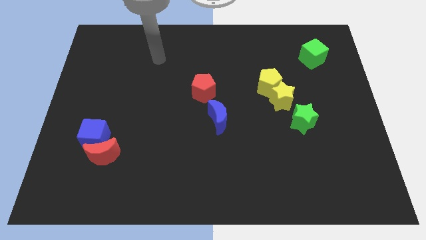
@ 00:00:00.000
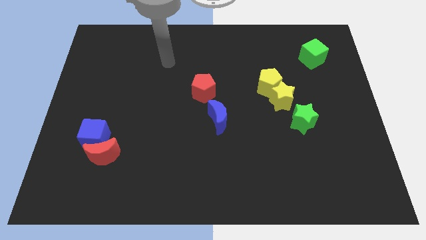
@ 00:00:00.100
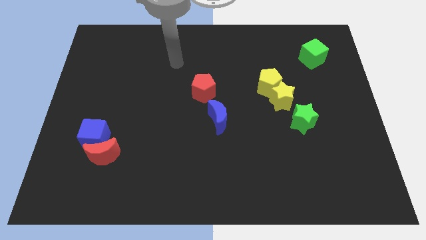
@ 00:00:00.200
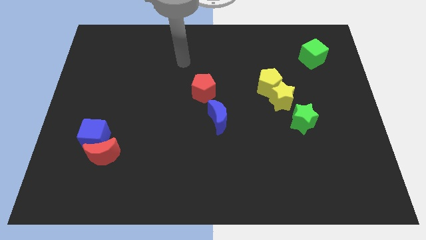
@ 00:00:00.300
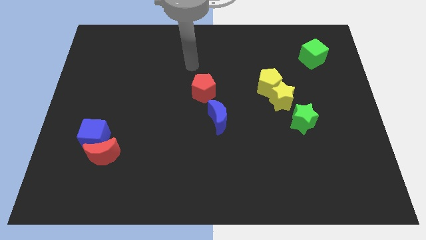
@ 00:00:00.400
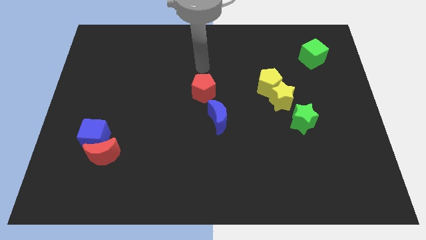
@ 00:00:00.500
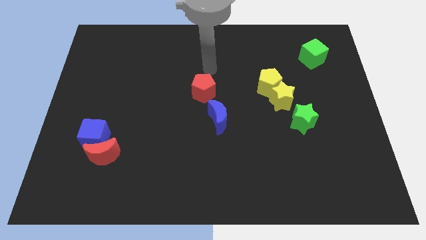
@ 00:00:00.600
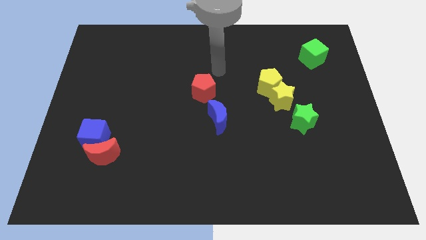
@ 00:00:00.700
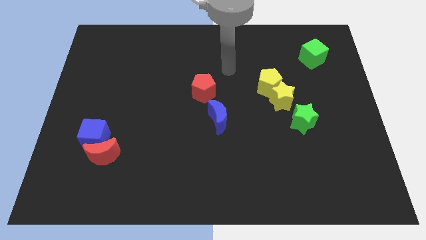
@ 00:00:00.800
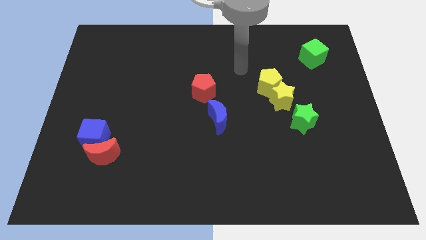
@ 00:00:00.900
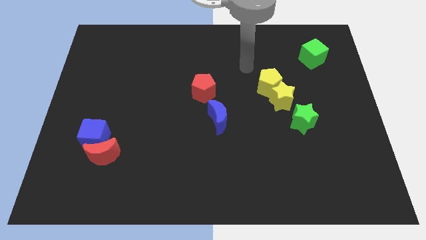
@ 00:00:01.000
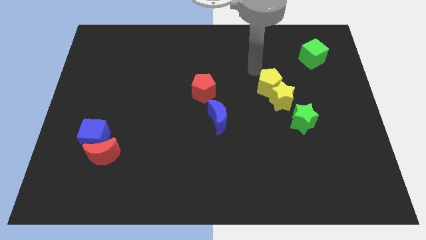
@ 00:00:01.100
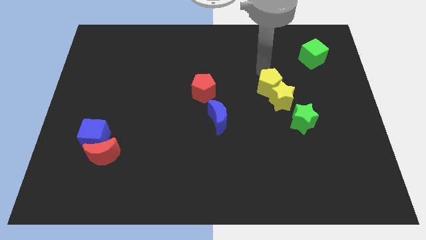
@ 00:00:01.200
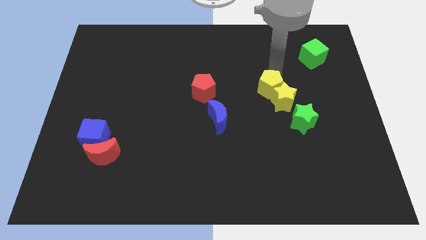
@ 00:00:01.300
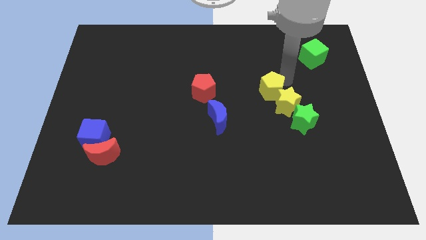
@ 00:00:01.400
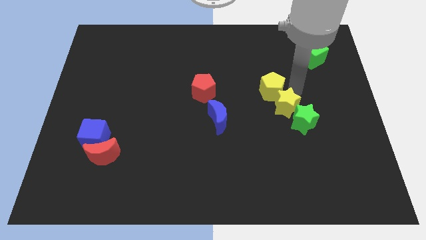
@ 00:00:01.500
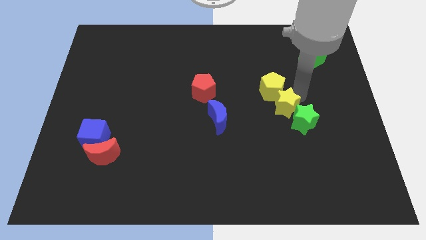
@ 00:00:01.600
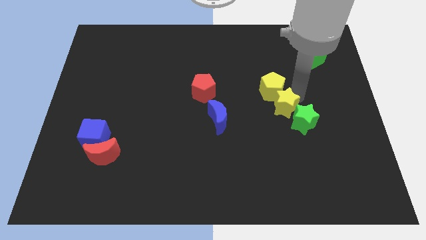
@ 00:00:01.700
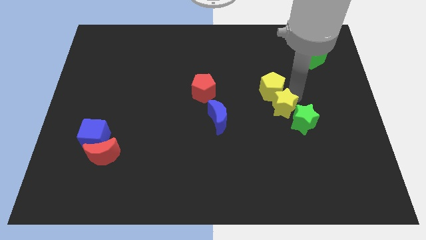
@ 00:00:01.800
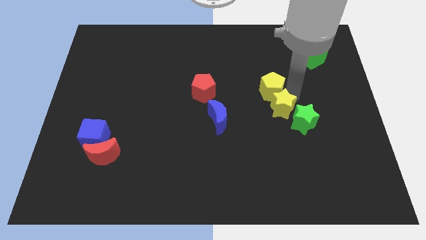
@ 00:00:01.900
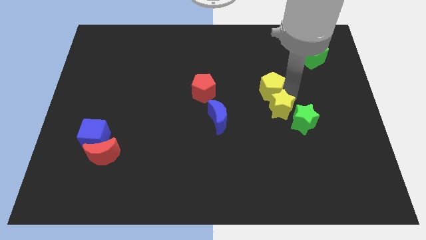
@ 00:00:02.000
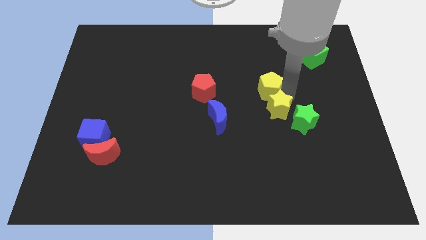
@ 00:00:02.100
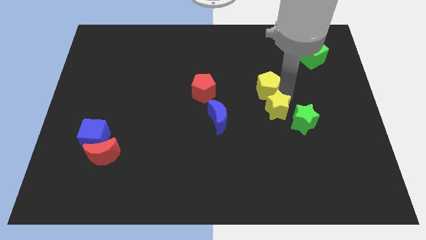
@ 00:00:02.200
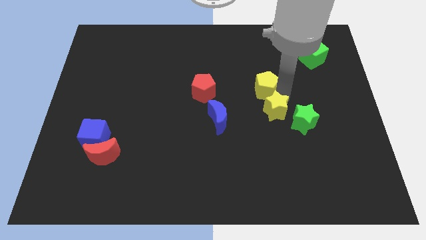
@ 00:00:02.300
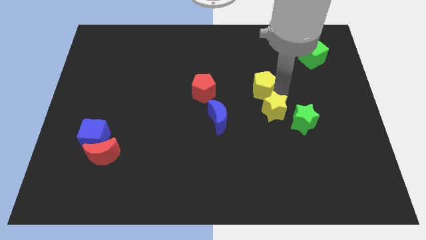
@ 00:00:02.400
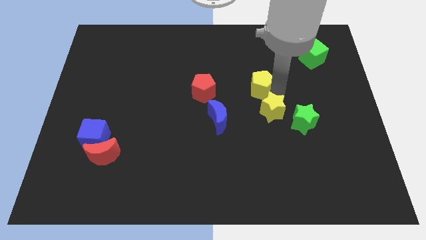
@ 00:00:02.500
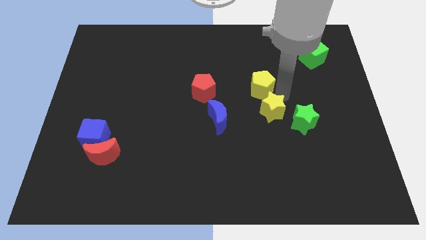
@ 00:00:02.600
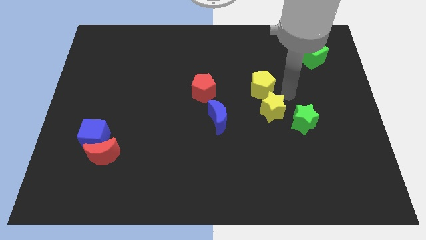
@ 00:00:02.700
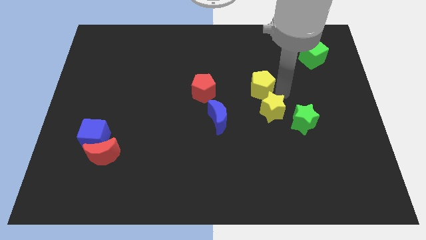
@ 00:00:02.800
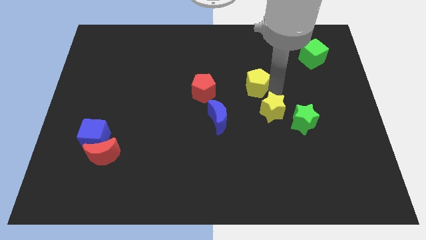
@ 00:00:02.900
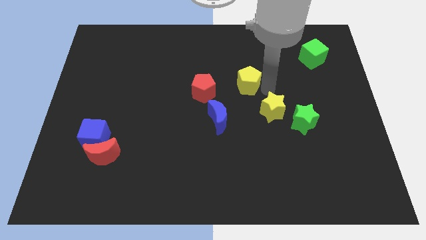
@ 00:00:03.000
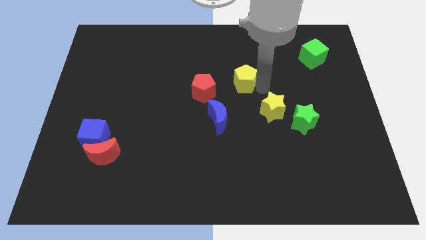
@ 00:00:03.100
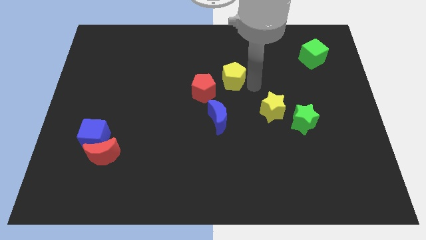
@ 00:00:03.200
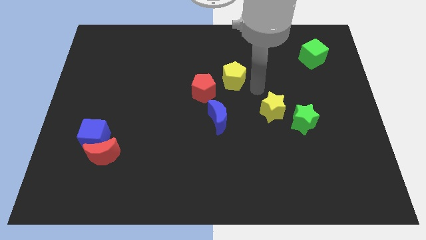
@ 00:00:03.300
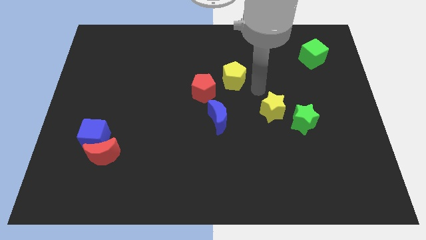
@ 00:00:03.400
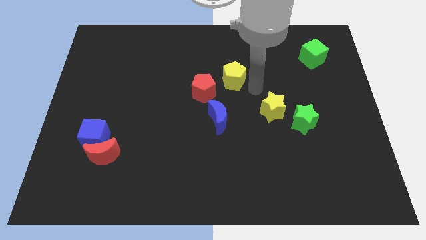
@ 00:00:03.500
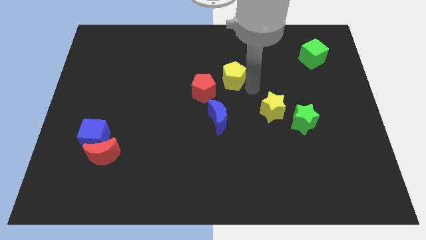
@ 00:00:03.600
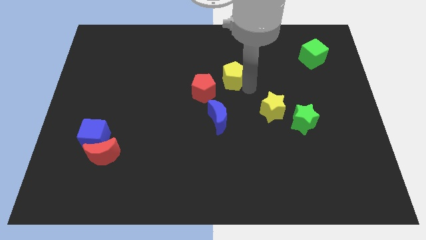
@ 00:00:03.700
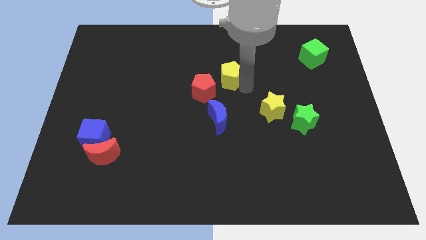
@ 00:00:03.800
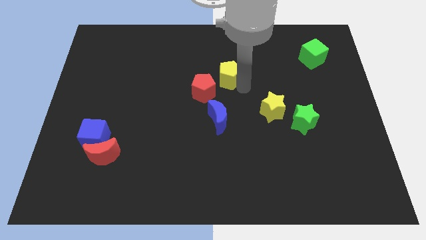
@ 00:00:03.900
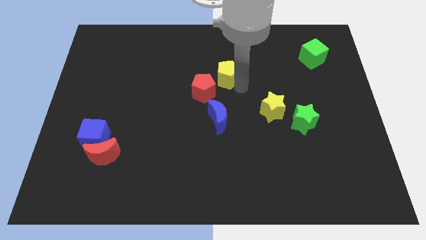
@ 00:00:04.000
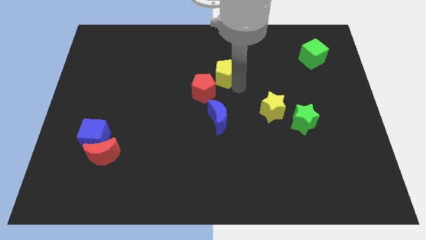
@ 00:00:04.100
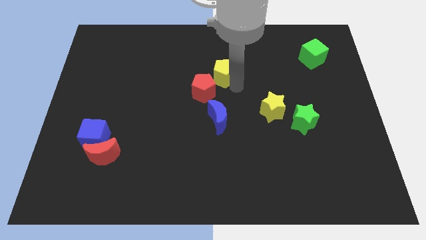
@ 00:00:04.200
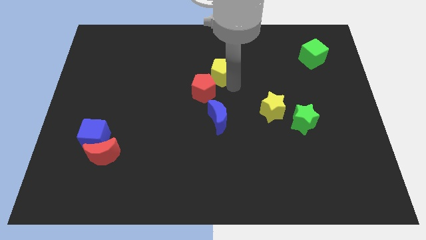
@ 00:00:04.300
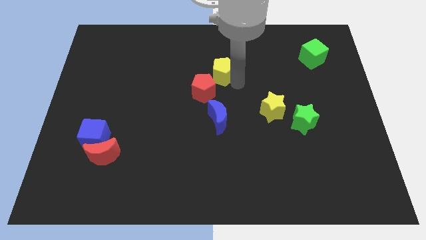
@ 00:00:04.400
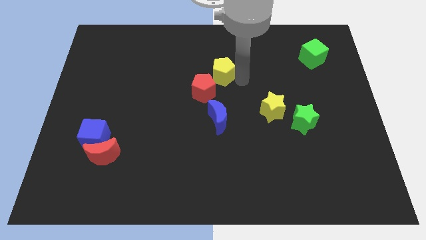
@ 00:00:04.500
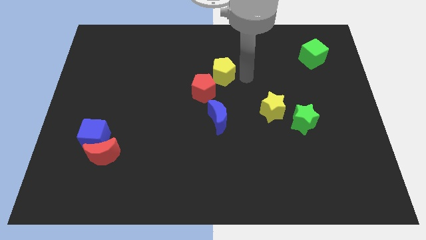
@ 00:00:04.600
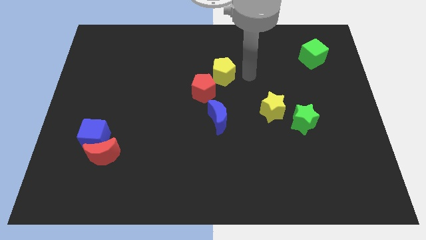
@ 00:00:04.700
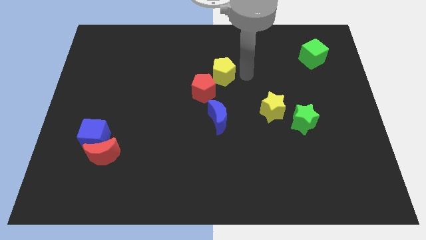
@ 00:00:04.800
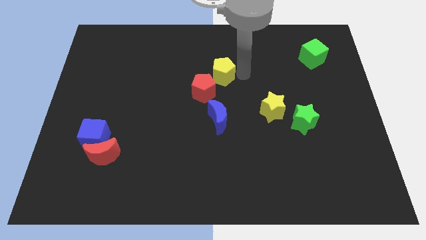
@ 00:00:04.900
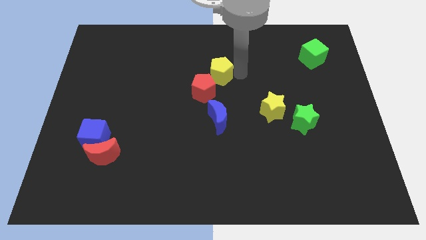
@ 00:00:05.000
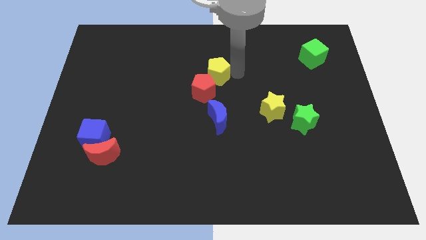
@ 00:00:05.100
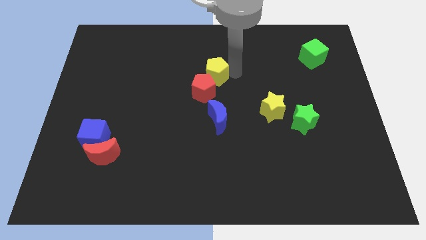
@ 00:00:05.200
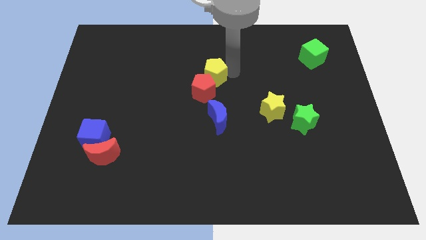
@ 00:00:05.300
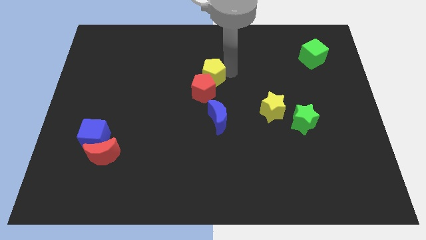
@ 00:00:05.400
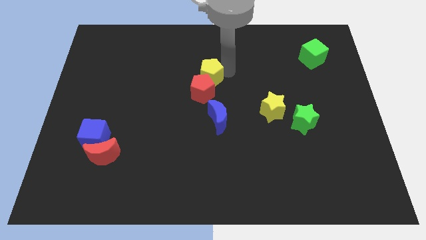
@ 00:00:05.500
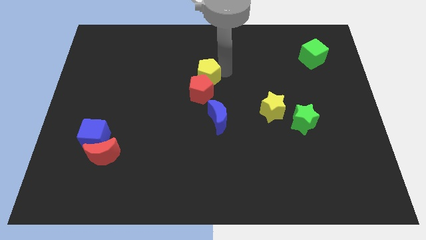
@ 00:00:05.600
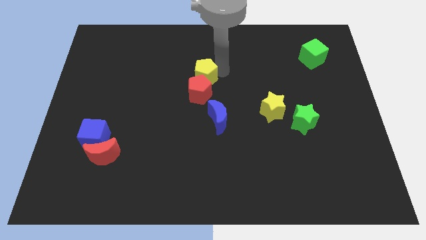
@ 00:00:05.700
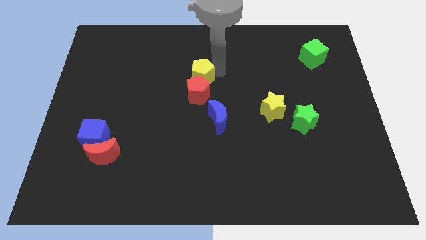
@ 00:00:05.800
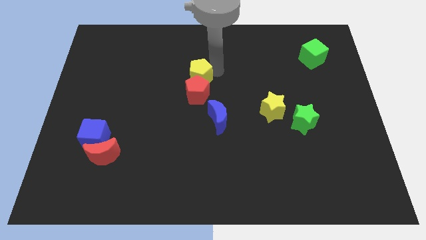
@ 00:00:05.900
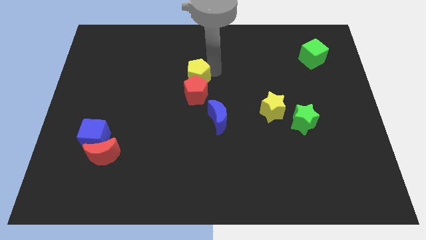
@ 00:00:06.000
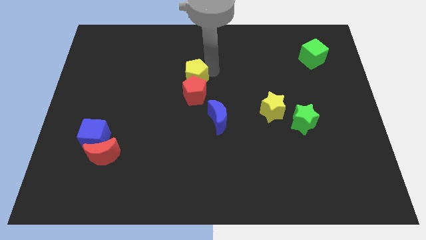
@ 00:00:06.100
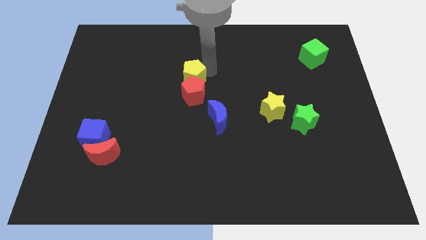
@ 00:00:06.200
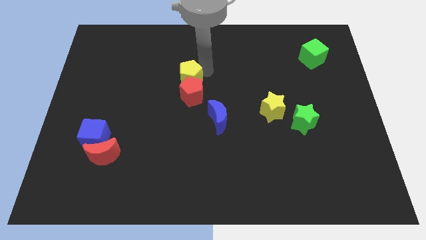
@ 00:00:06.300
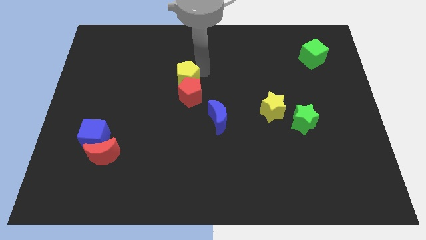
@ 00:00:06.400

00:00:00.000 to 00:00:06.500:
move the yellow pentagon to the left

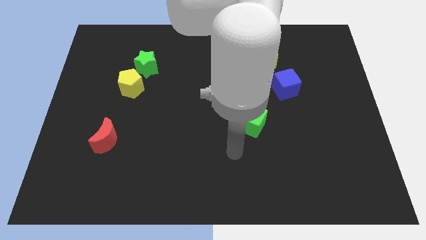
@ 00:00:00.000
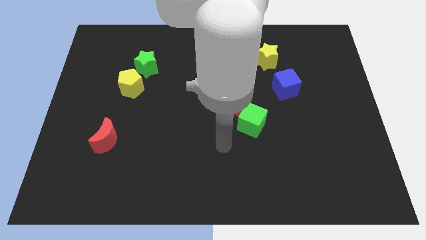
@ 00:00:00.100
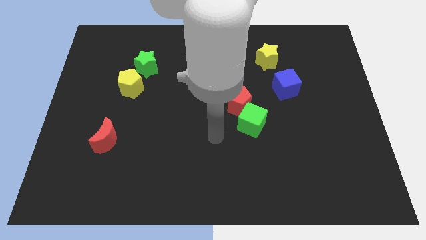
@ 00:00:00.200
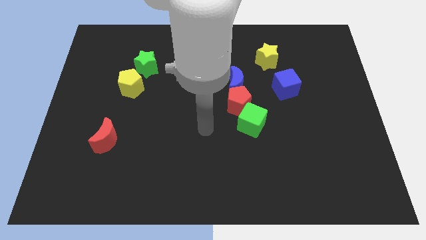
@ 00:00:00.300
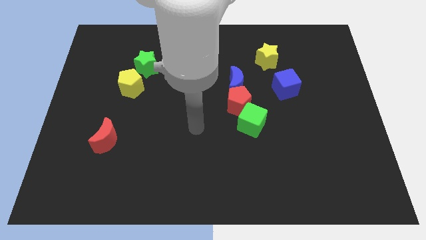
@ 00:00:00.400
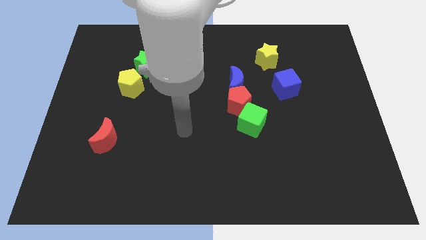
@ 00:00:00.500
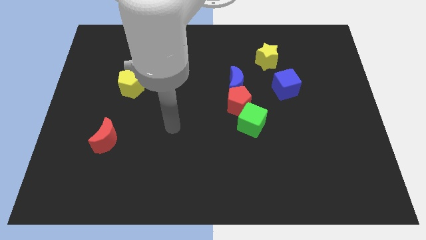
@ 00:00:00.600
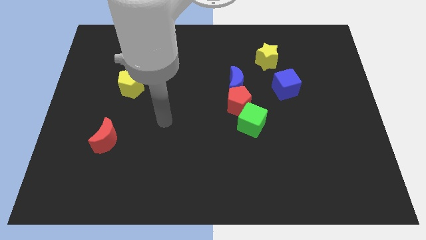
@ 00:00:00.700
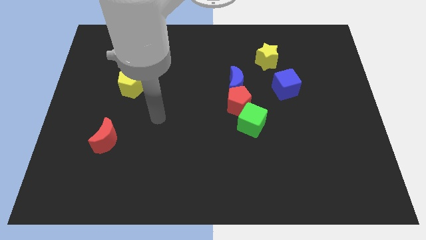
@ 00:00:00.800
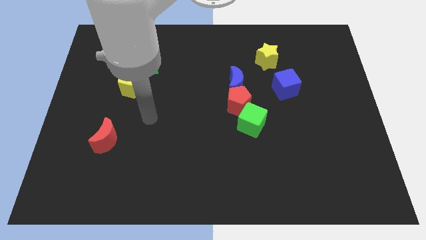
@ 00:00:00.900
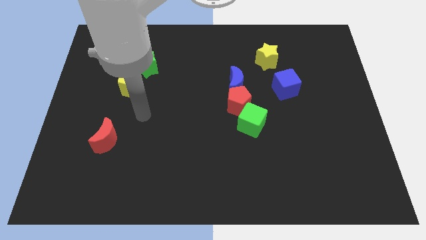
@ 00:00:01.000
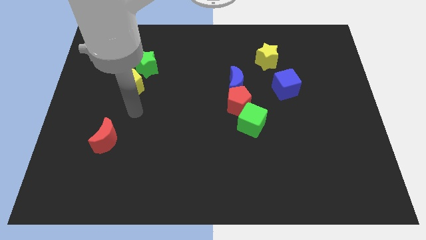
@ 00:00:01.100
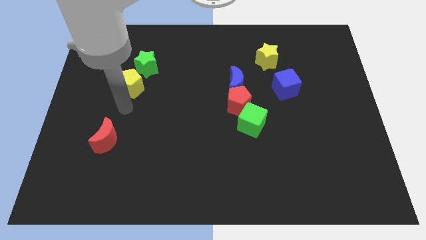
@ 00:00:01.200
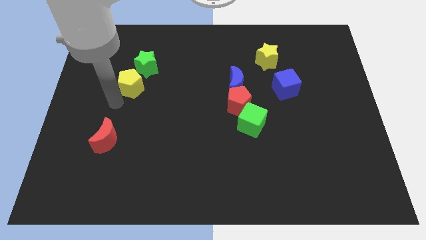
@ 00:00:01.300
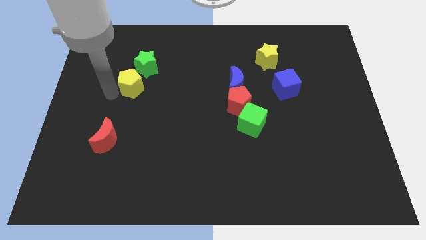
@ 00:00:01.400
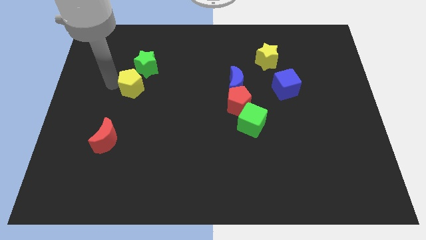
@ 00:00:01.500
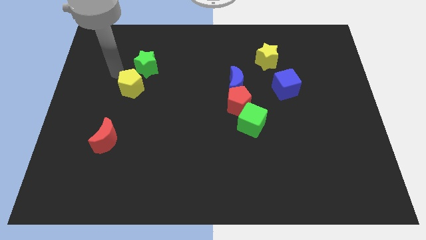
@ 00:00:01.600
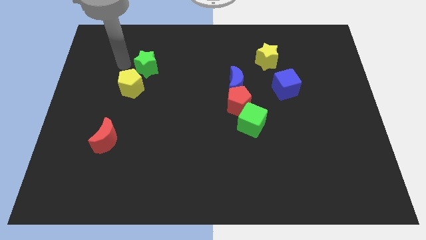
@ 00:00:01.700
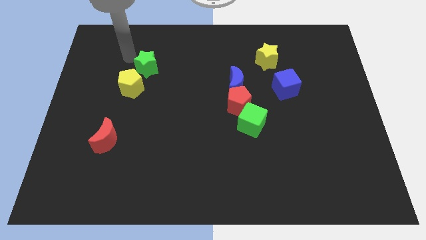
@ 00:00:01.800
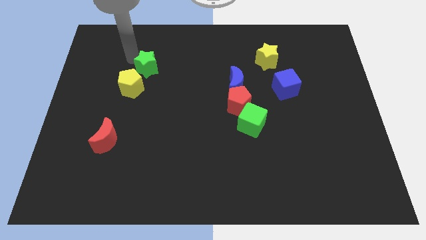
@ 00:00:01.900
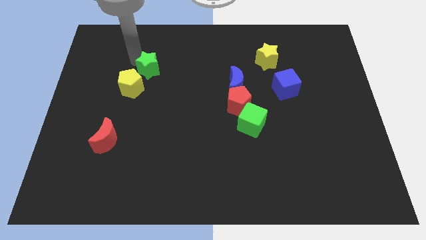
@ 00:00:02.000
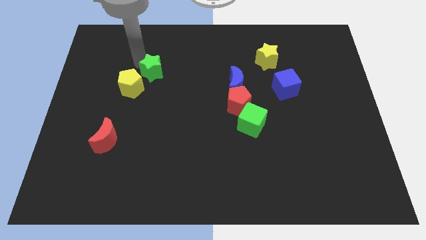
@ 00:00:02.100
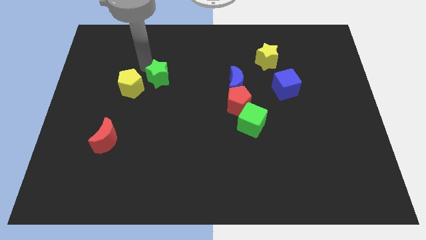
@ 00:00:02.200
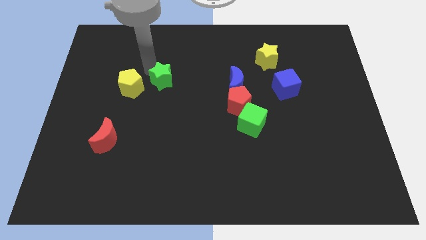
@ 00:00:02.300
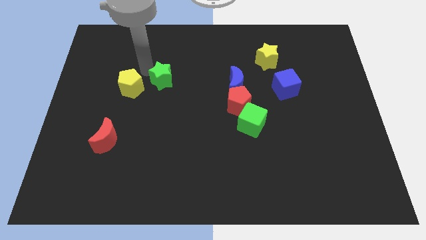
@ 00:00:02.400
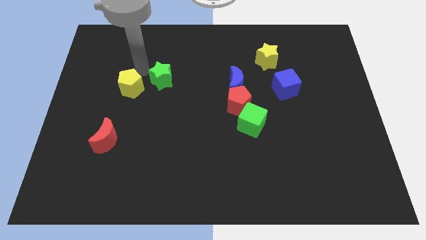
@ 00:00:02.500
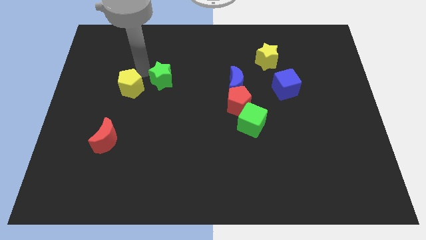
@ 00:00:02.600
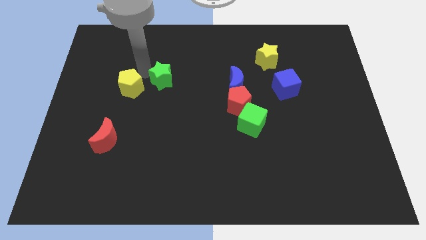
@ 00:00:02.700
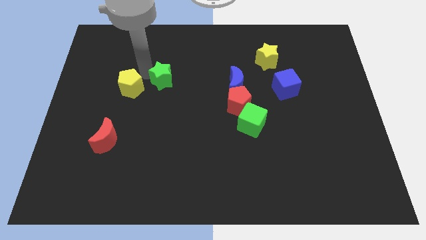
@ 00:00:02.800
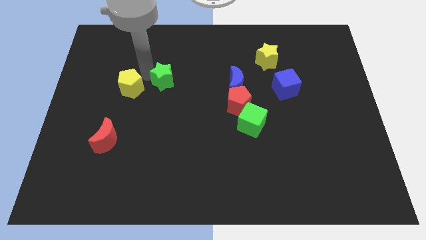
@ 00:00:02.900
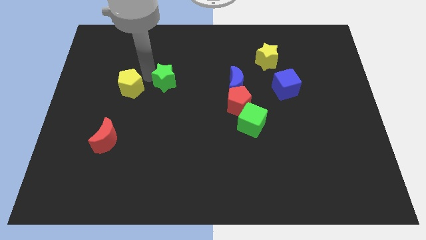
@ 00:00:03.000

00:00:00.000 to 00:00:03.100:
slide the green star down and to the right diagonally a little
